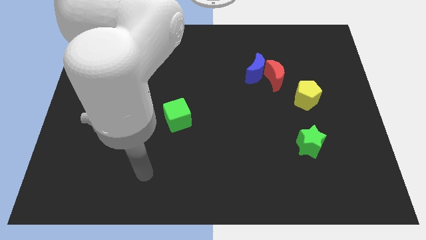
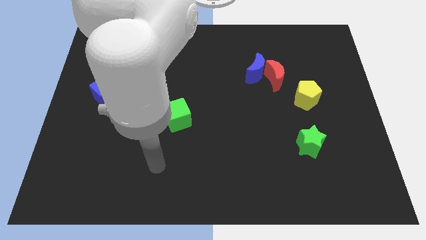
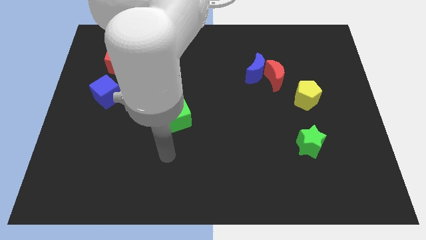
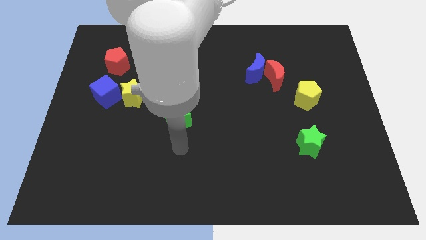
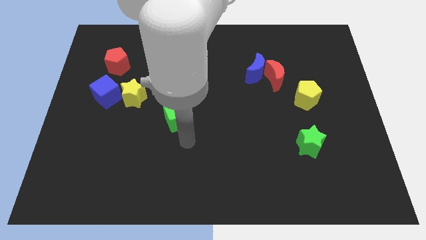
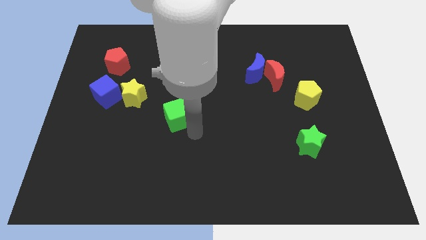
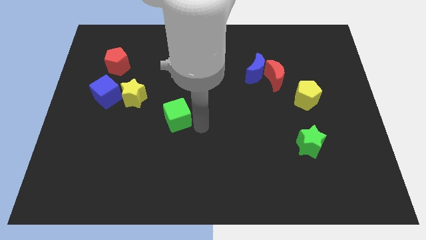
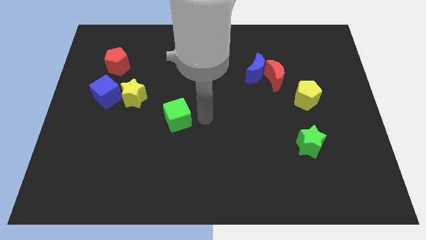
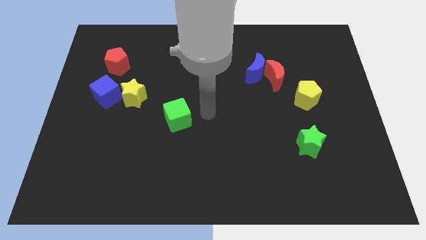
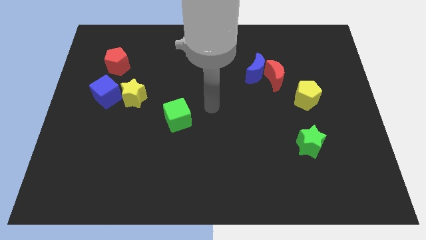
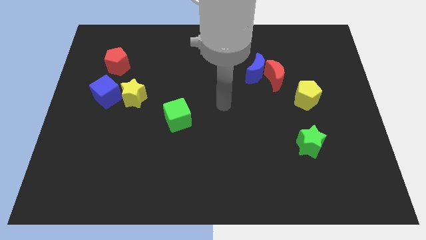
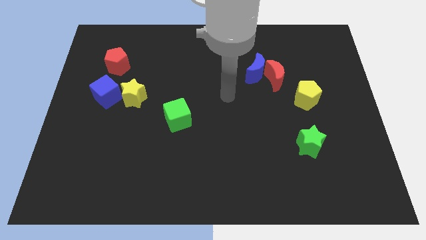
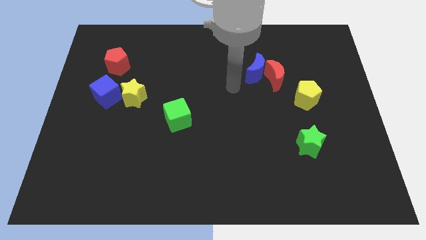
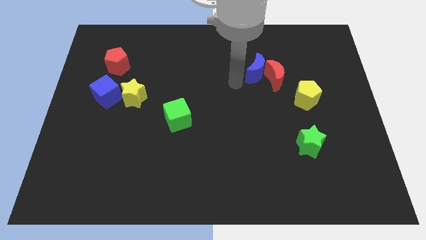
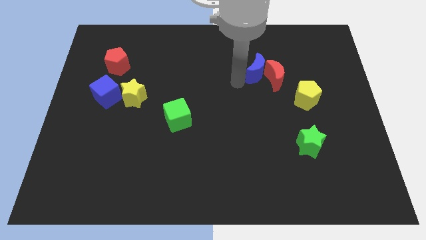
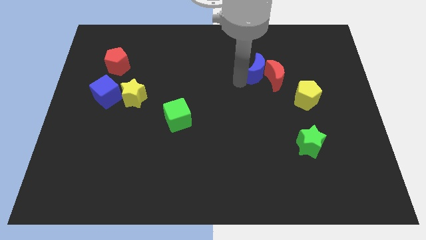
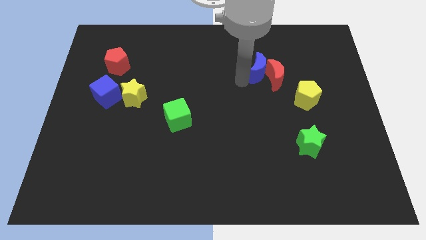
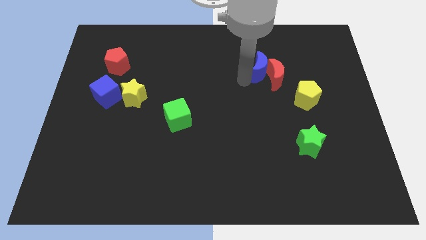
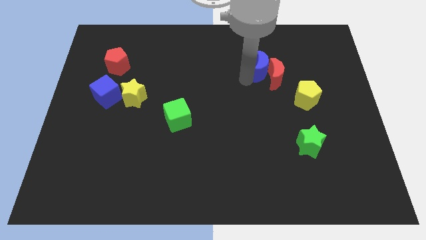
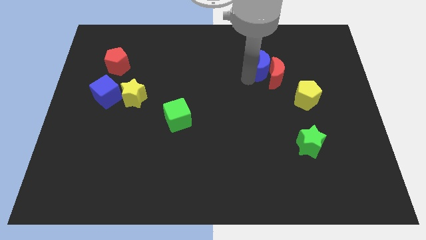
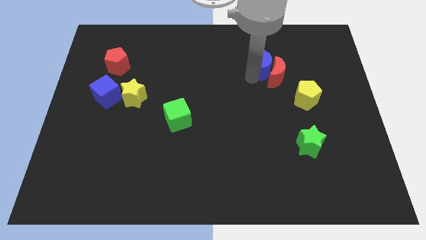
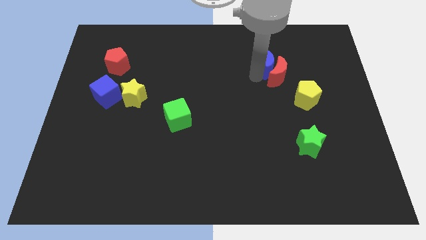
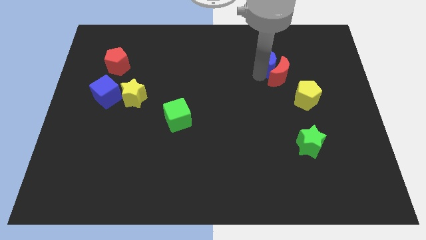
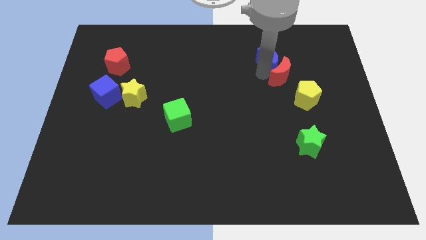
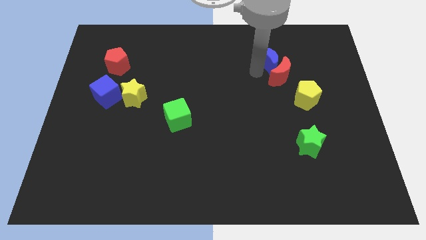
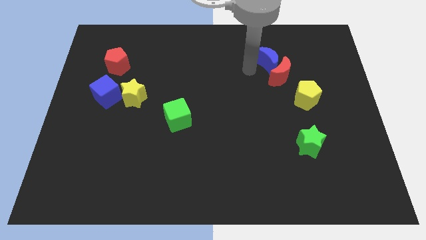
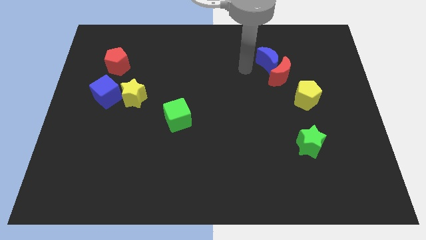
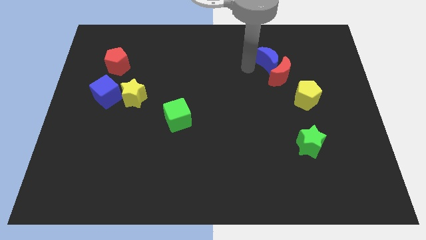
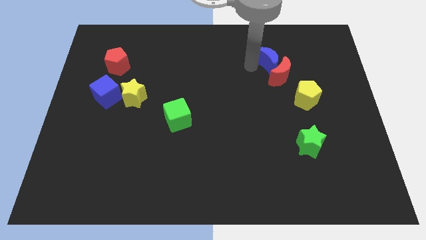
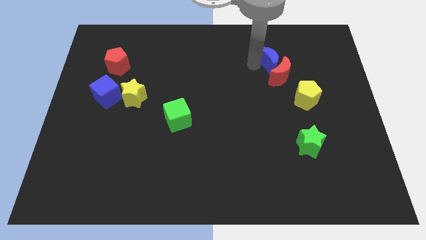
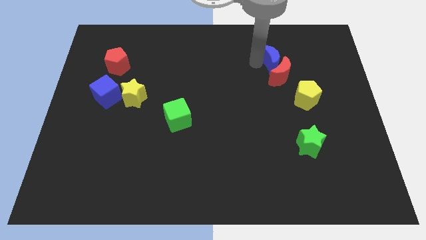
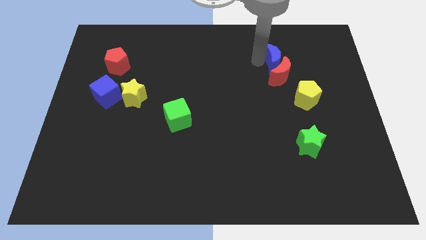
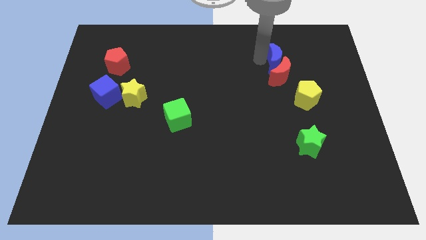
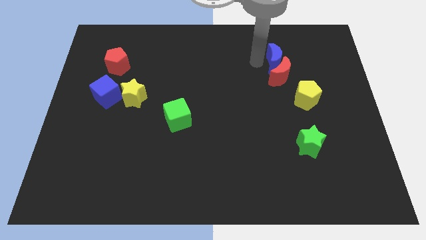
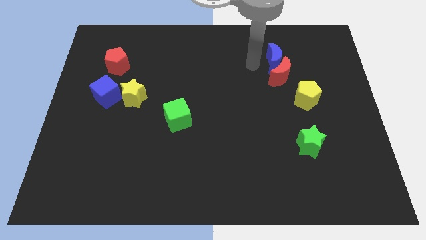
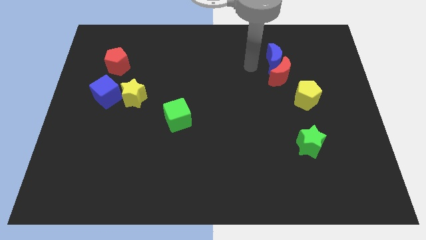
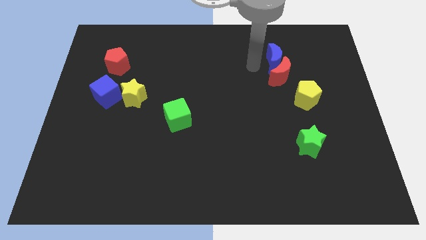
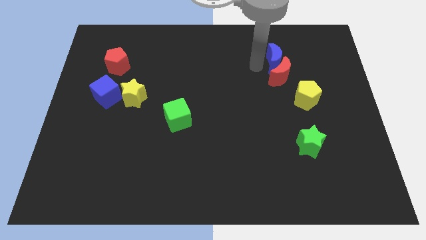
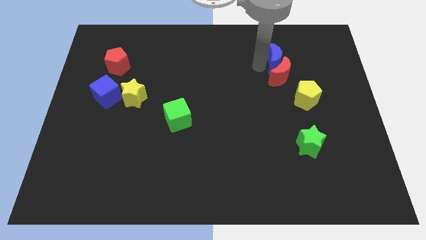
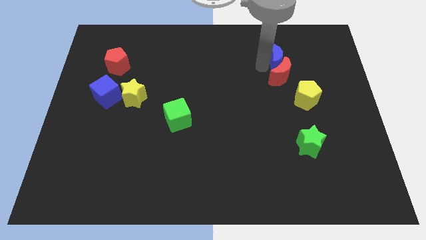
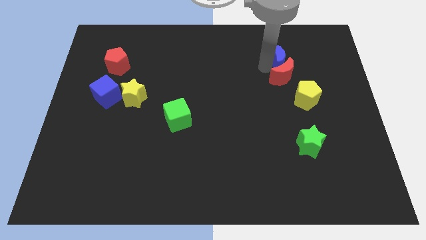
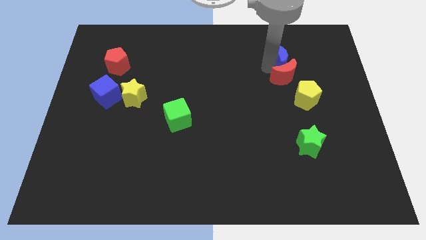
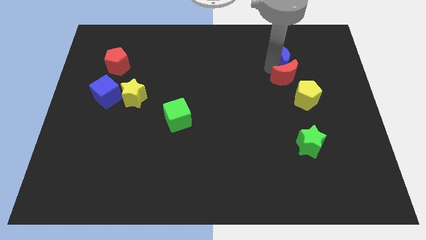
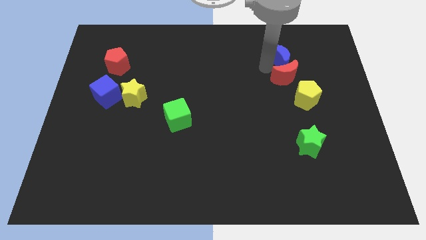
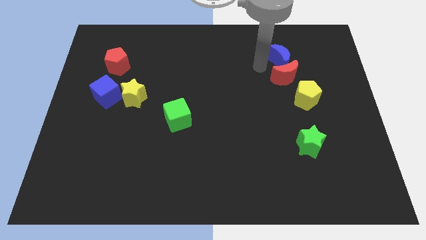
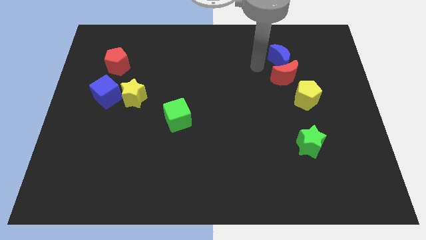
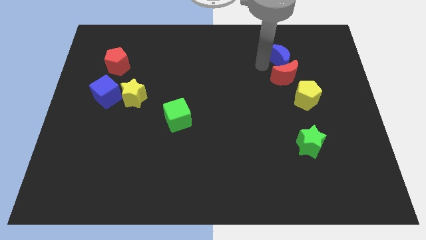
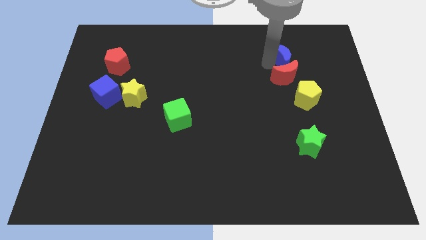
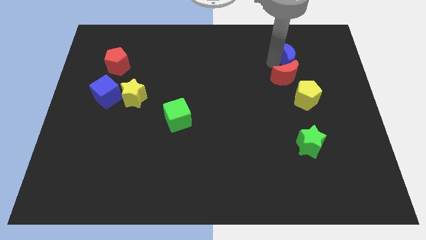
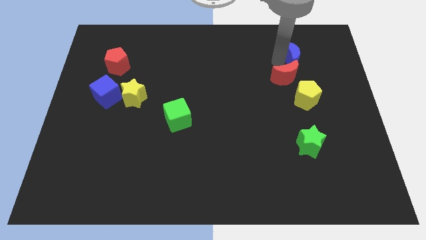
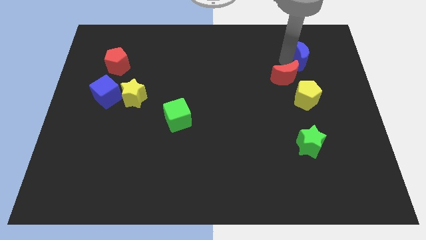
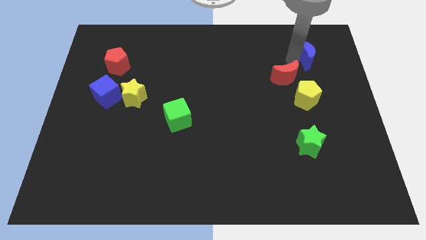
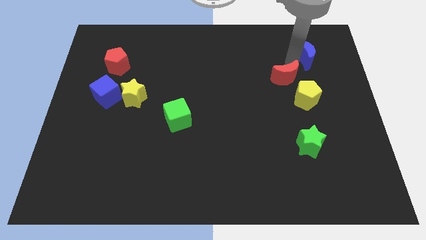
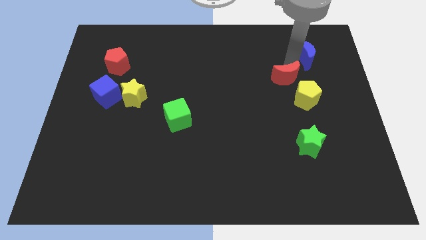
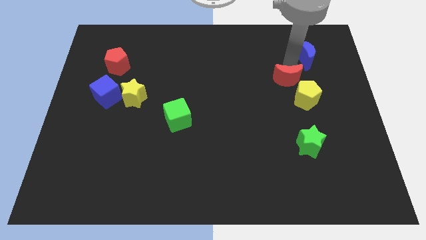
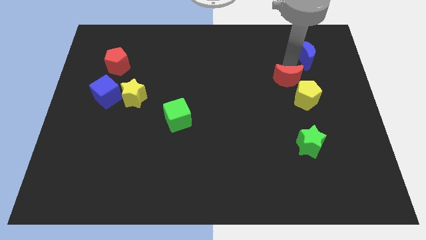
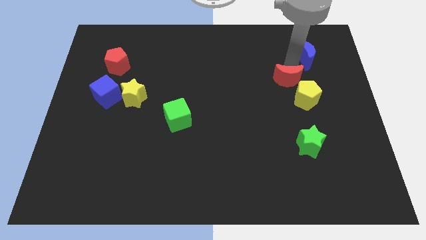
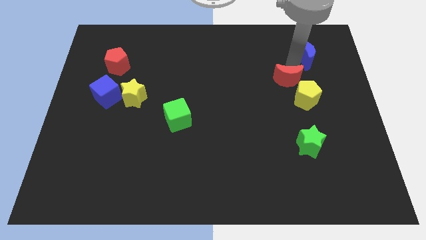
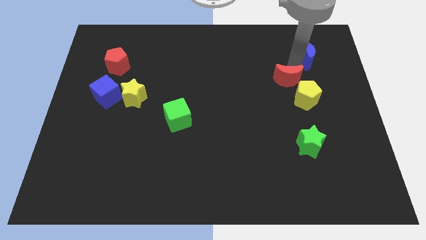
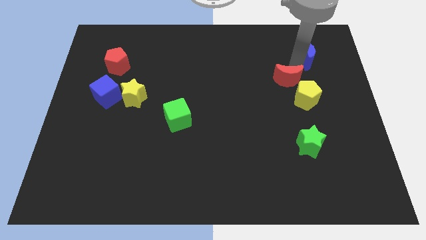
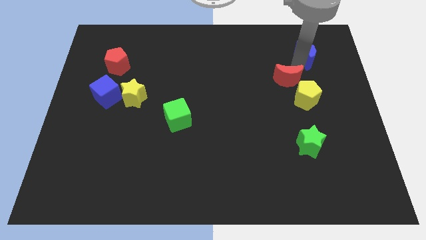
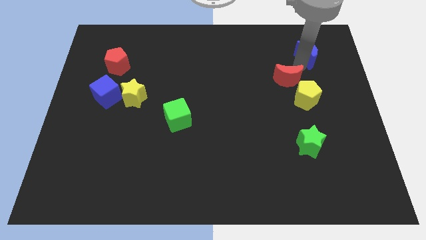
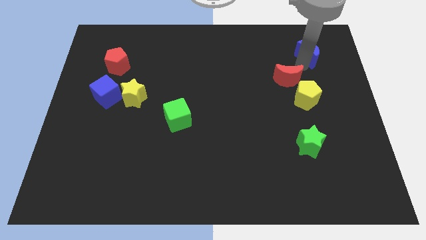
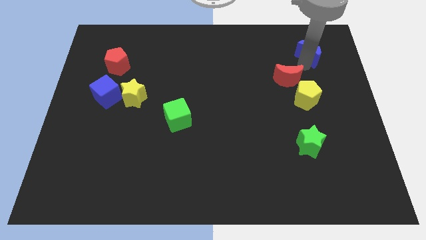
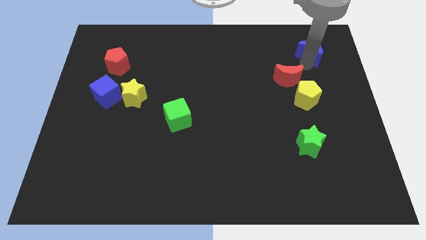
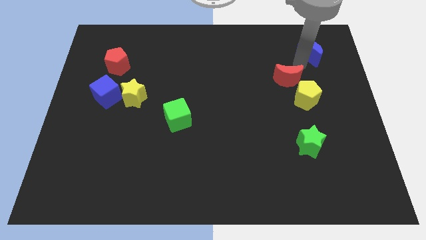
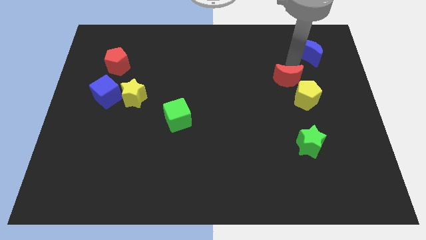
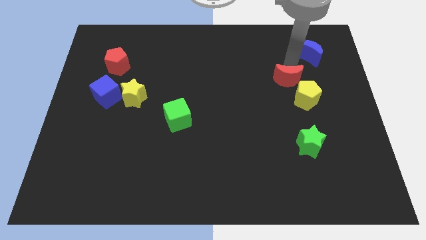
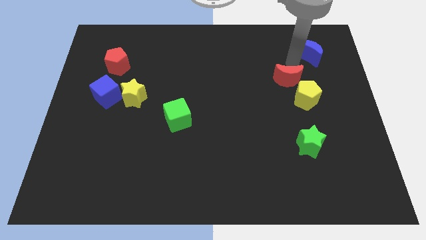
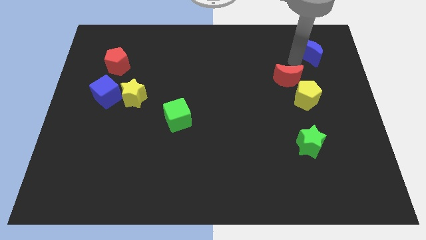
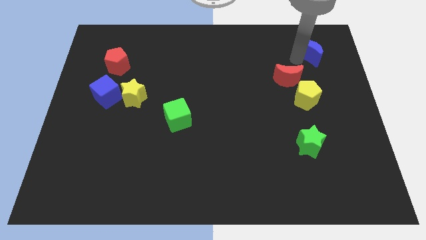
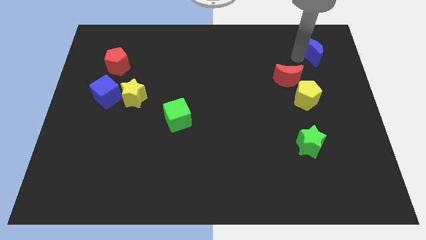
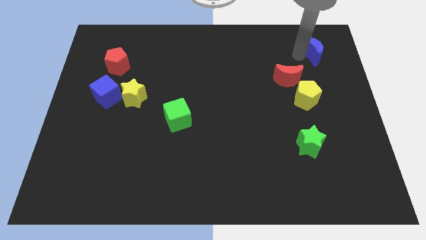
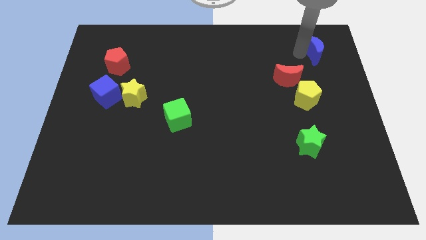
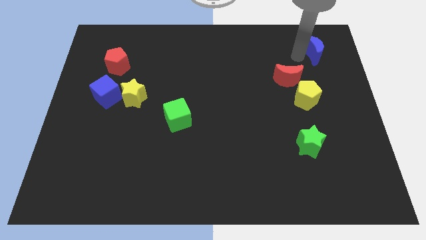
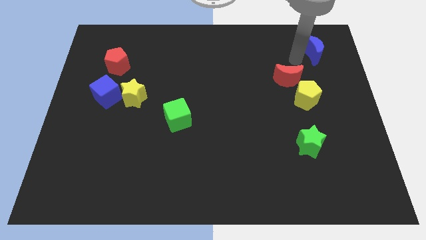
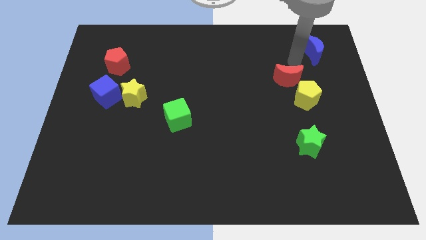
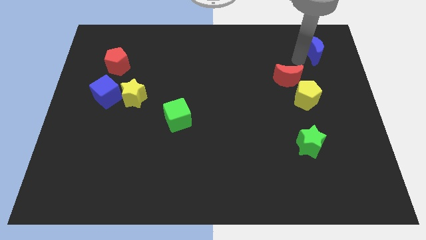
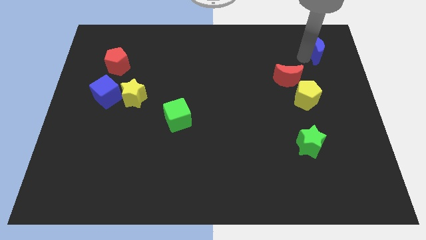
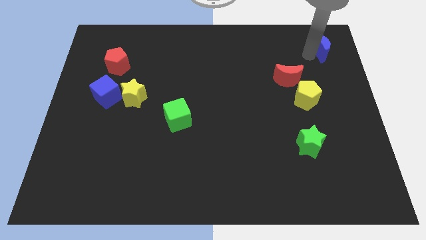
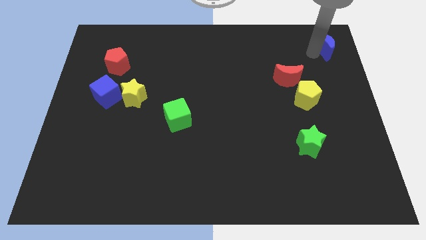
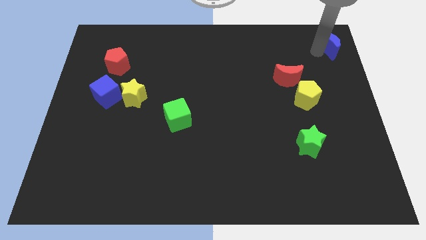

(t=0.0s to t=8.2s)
put the blue moon to the upper right corner
